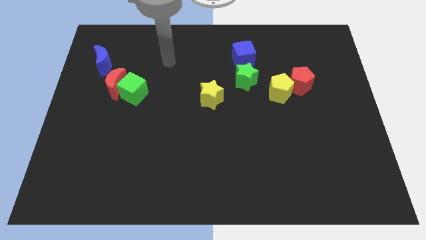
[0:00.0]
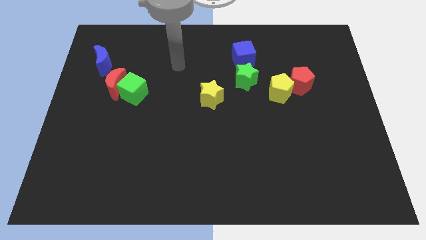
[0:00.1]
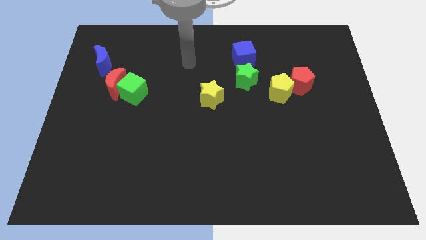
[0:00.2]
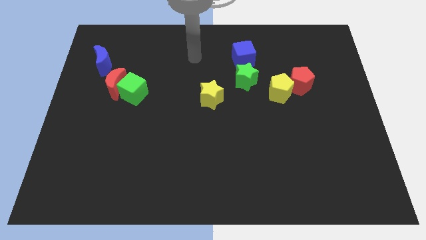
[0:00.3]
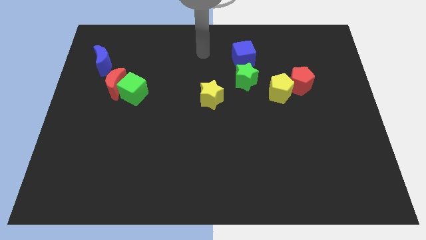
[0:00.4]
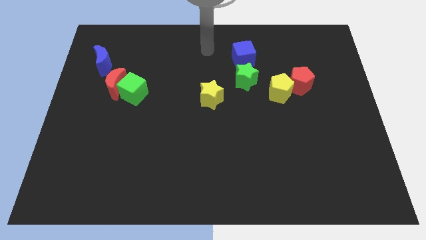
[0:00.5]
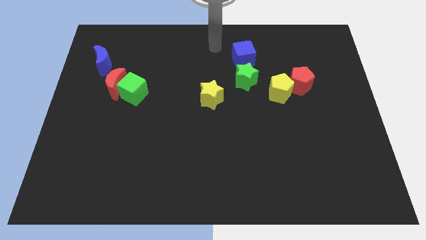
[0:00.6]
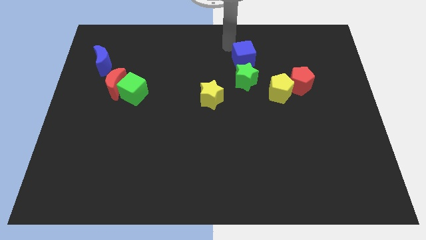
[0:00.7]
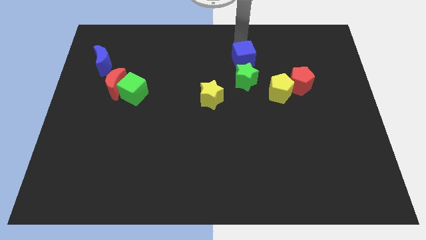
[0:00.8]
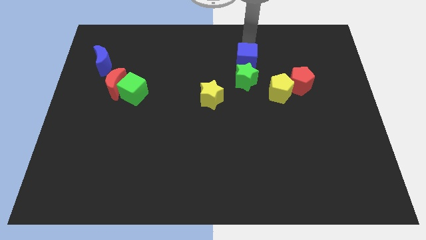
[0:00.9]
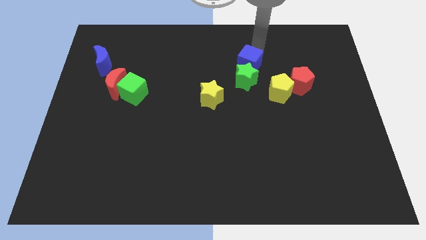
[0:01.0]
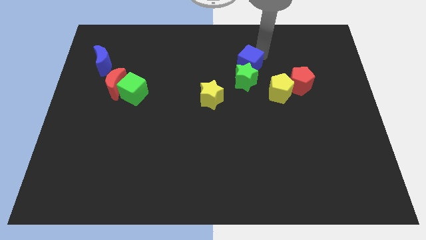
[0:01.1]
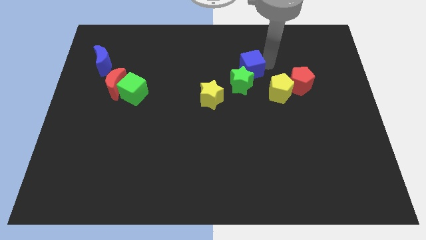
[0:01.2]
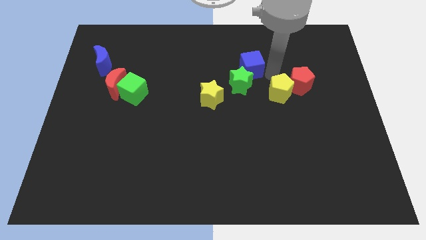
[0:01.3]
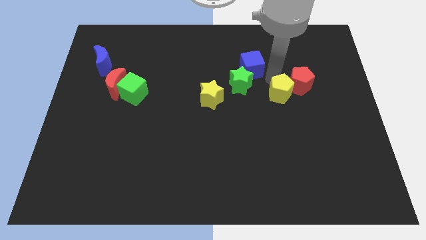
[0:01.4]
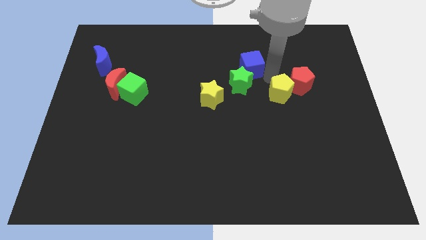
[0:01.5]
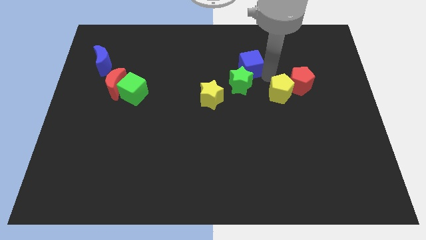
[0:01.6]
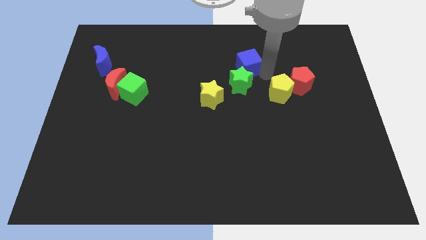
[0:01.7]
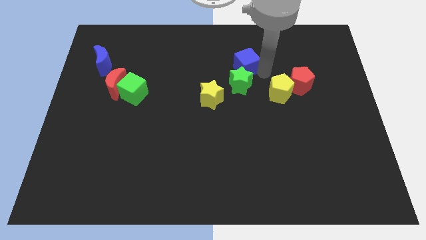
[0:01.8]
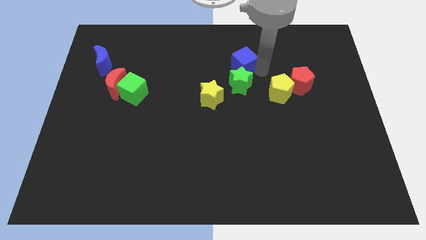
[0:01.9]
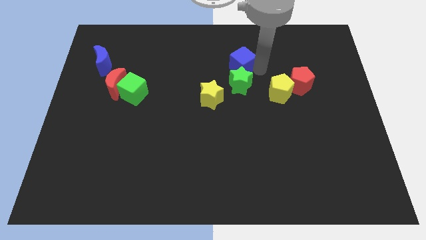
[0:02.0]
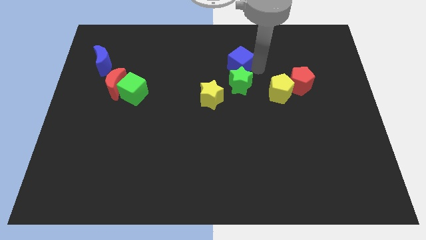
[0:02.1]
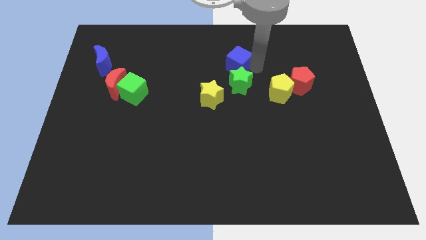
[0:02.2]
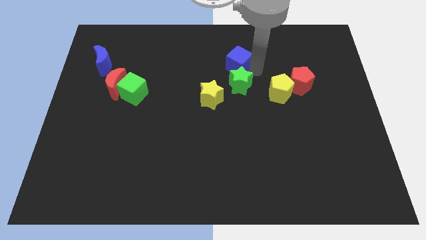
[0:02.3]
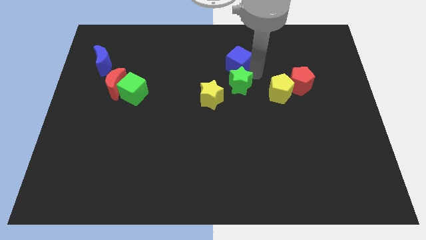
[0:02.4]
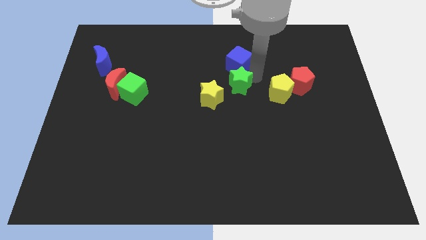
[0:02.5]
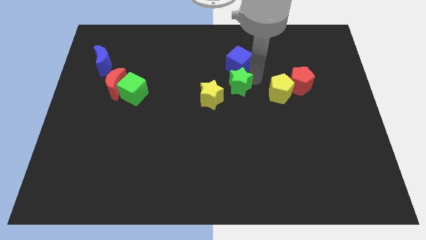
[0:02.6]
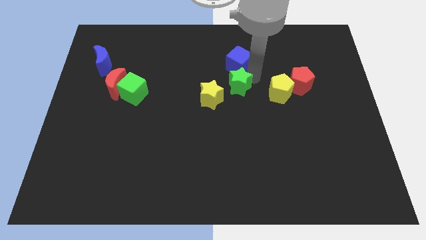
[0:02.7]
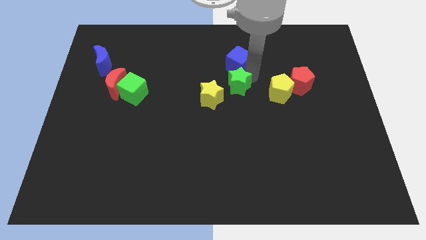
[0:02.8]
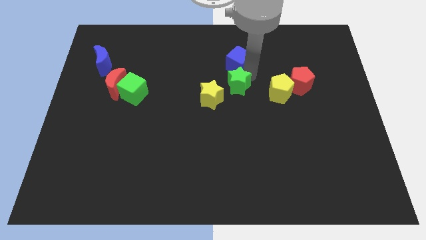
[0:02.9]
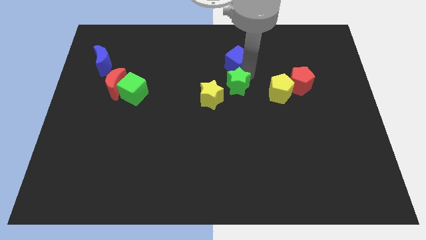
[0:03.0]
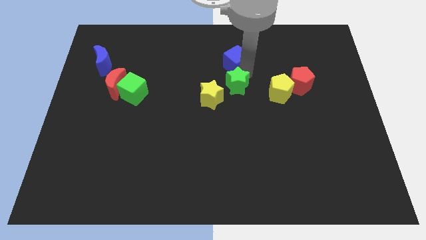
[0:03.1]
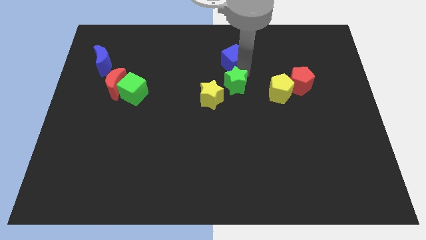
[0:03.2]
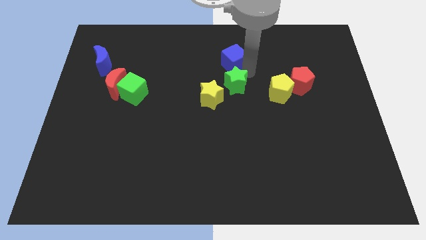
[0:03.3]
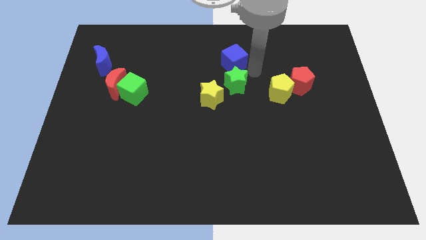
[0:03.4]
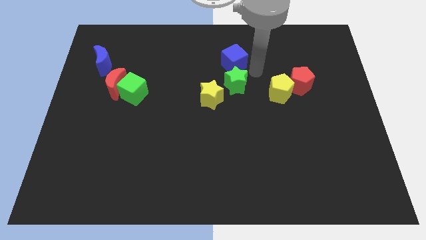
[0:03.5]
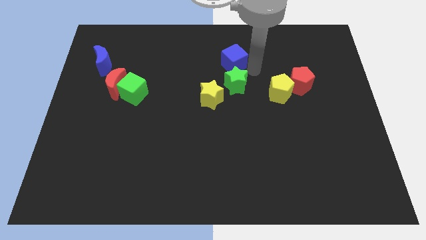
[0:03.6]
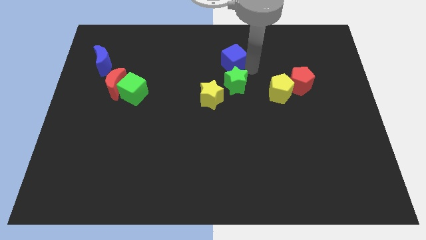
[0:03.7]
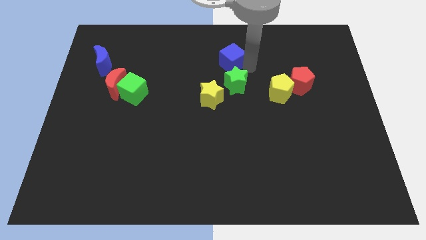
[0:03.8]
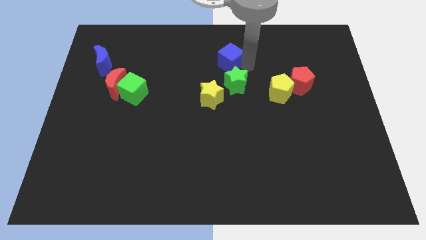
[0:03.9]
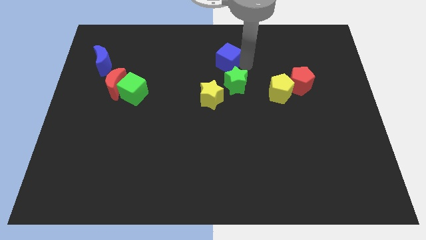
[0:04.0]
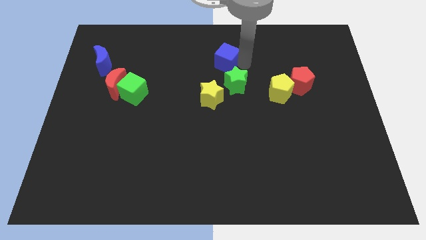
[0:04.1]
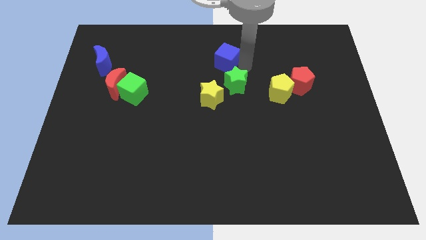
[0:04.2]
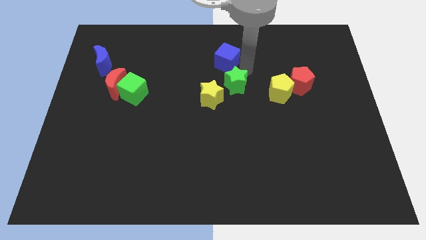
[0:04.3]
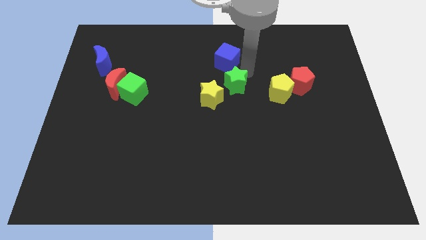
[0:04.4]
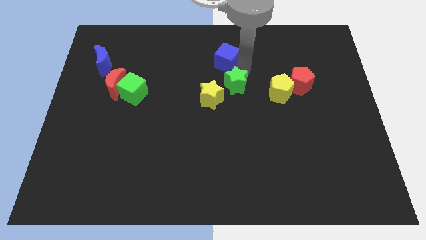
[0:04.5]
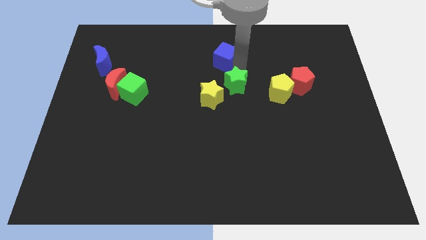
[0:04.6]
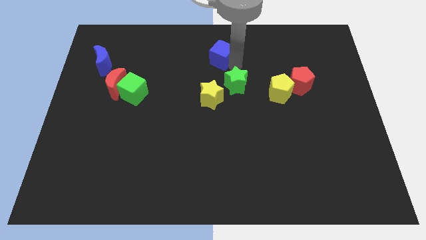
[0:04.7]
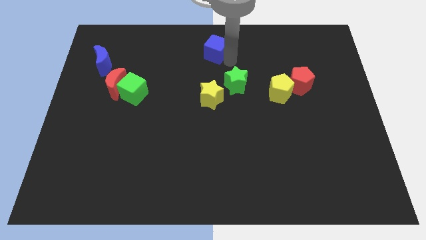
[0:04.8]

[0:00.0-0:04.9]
slightly move the blue cube left

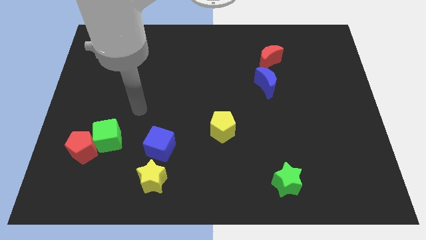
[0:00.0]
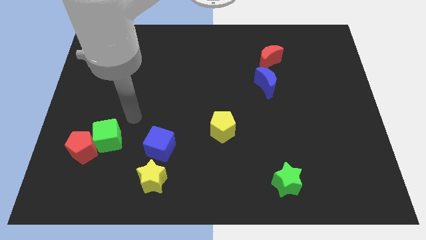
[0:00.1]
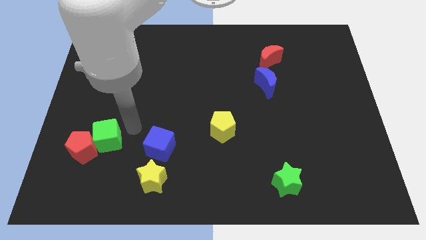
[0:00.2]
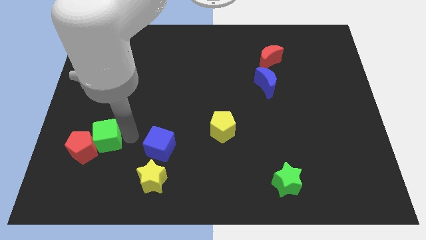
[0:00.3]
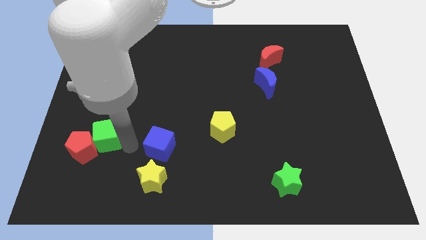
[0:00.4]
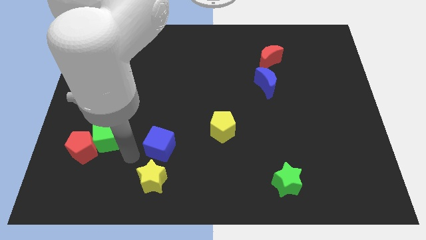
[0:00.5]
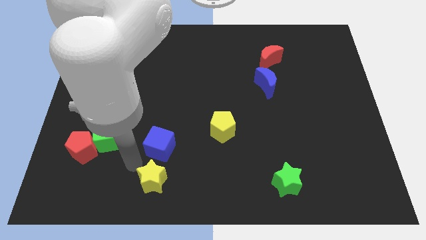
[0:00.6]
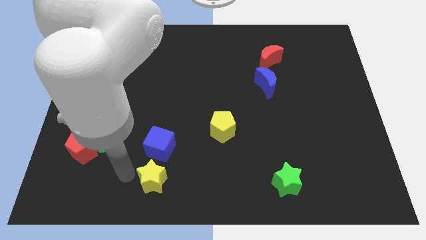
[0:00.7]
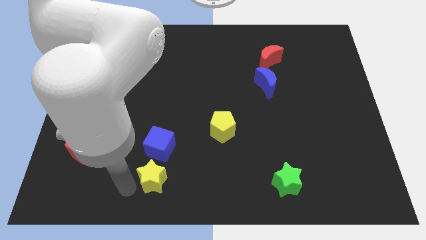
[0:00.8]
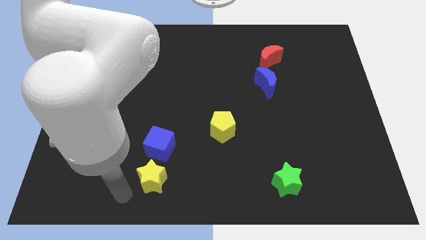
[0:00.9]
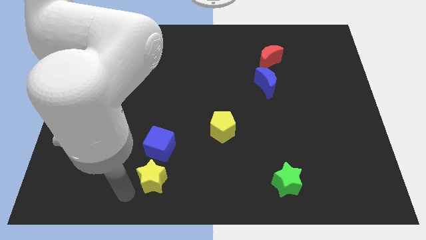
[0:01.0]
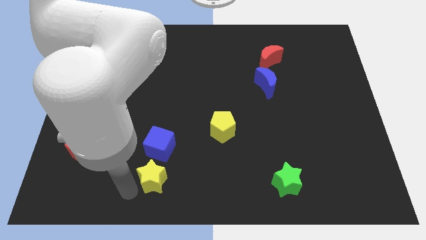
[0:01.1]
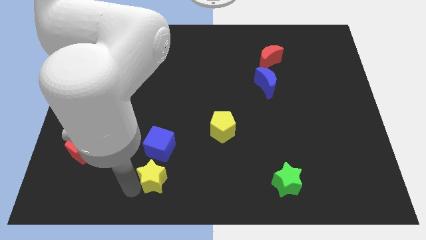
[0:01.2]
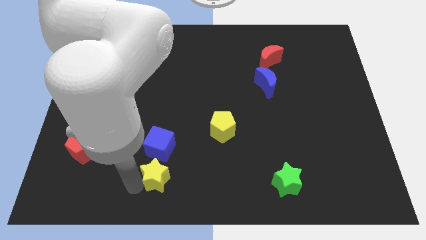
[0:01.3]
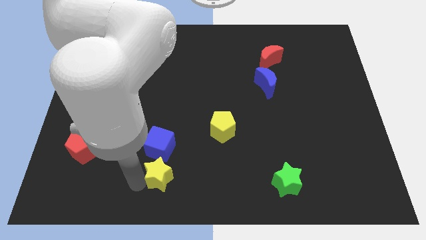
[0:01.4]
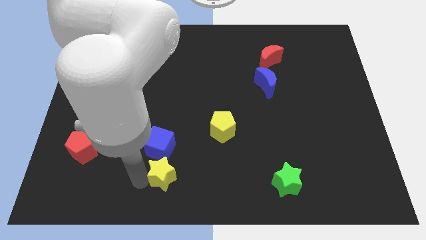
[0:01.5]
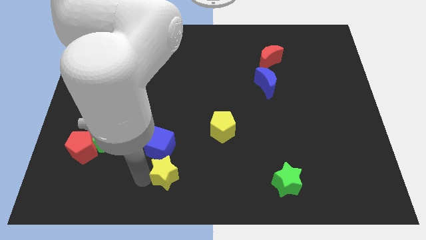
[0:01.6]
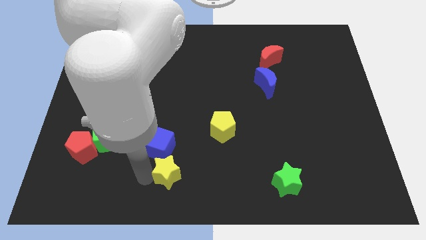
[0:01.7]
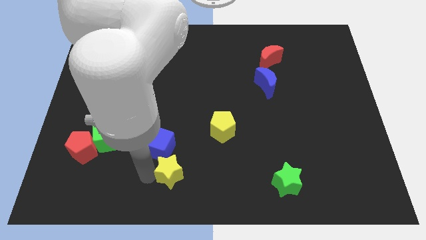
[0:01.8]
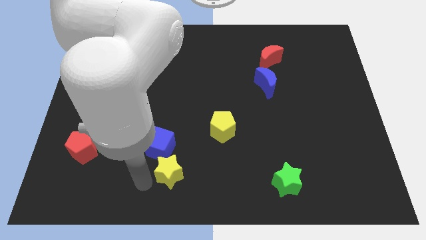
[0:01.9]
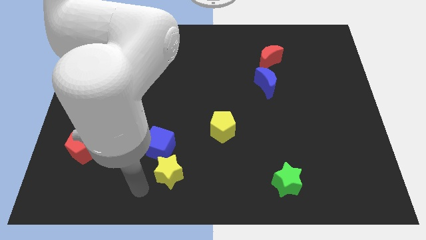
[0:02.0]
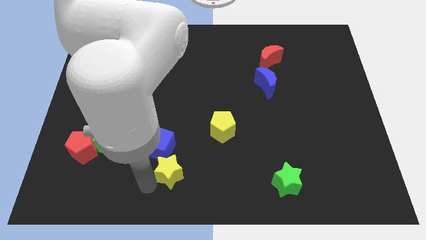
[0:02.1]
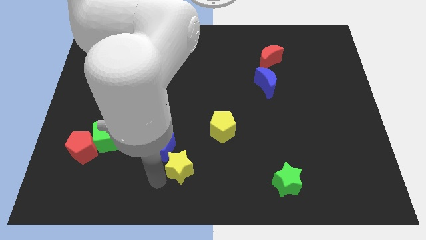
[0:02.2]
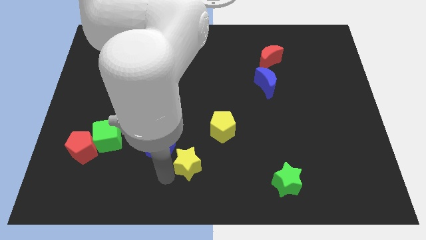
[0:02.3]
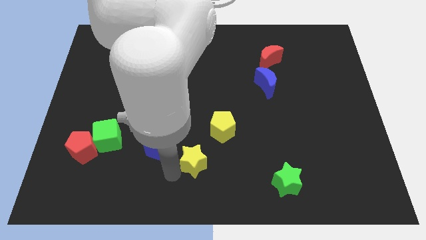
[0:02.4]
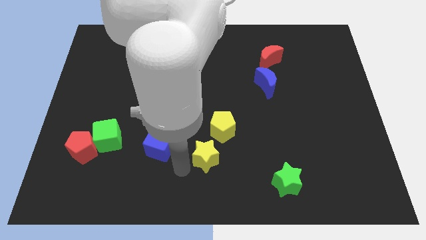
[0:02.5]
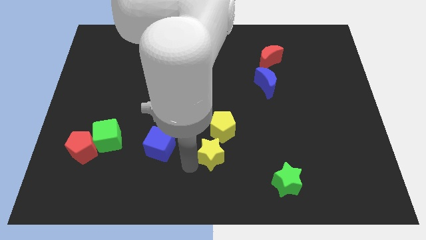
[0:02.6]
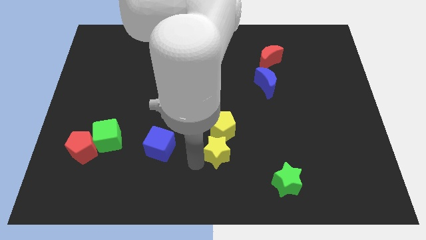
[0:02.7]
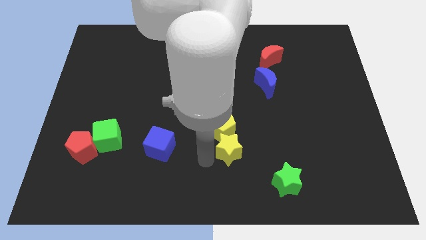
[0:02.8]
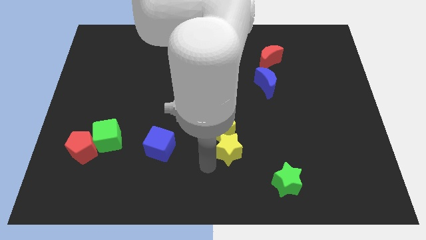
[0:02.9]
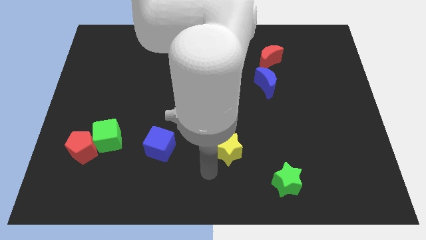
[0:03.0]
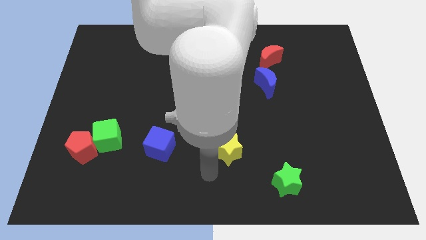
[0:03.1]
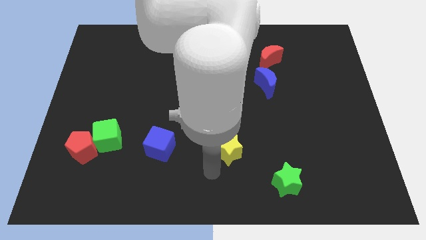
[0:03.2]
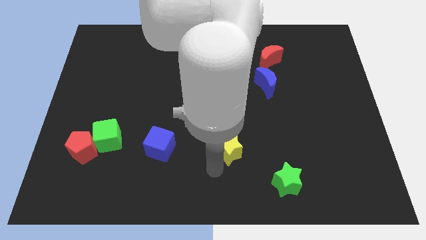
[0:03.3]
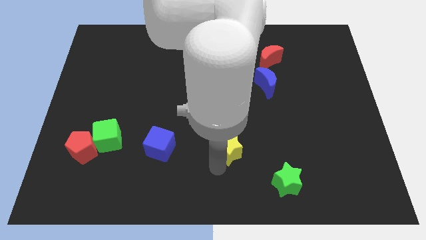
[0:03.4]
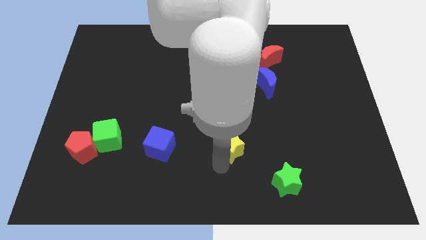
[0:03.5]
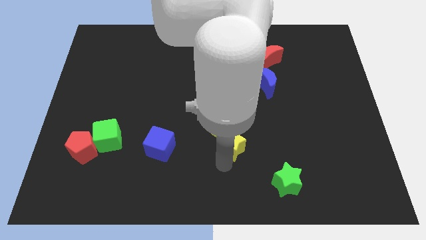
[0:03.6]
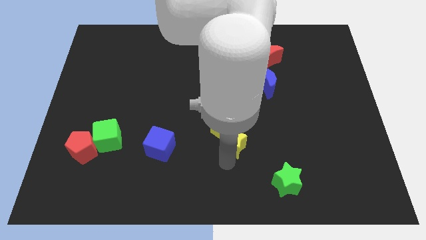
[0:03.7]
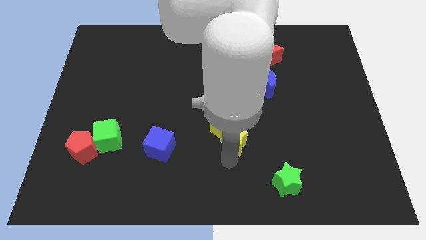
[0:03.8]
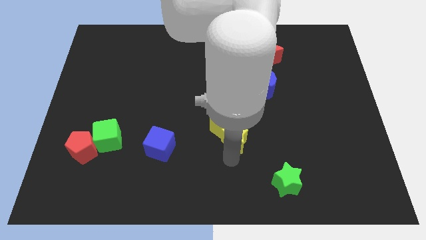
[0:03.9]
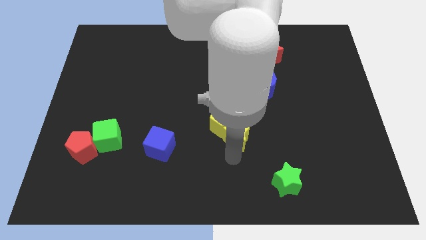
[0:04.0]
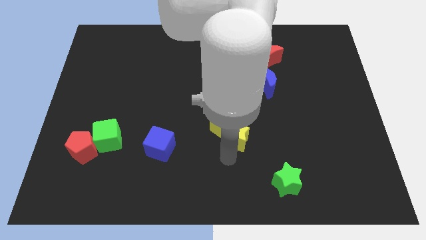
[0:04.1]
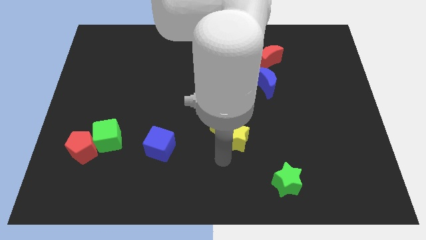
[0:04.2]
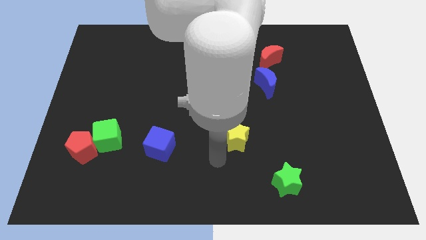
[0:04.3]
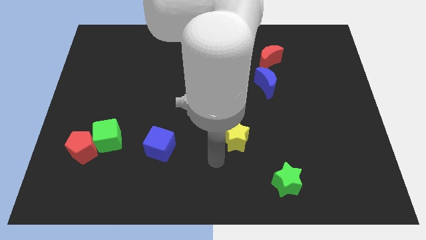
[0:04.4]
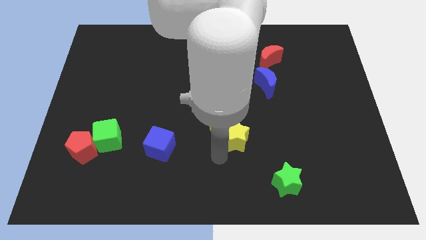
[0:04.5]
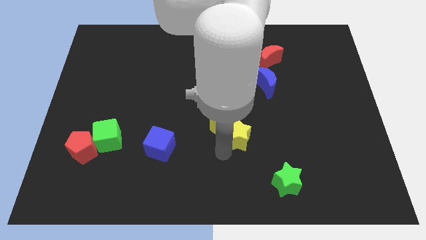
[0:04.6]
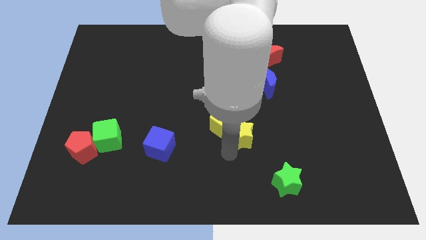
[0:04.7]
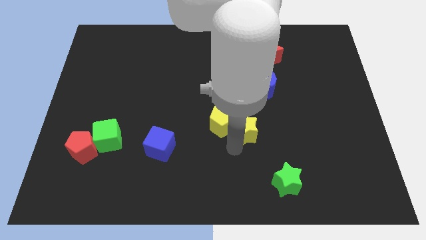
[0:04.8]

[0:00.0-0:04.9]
push the yellow star upwards and right diagonally
